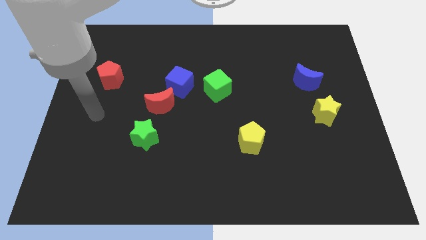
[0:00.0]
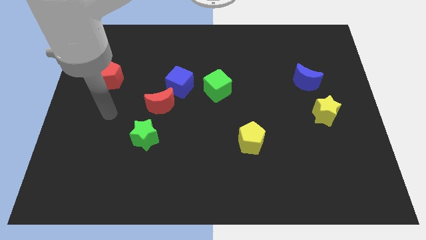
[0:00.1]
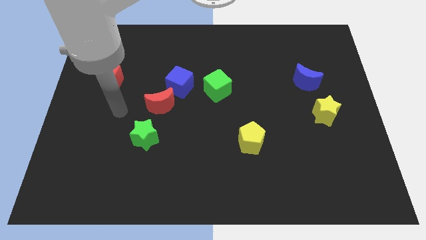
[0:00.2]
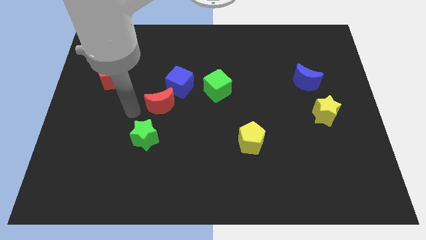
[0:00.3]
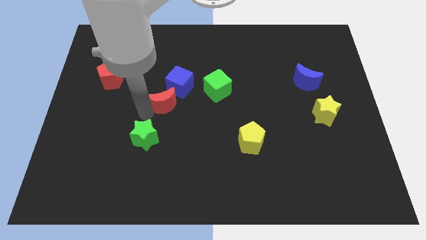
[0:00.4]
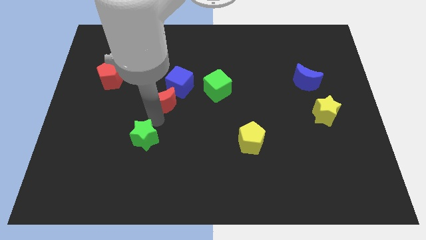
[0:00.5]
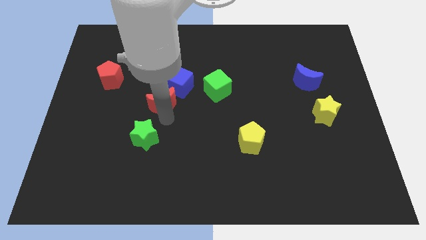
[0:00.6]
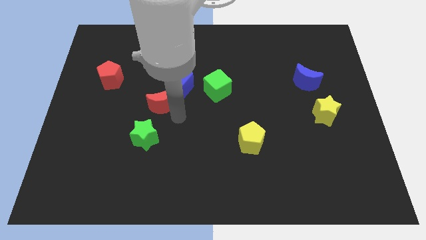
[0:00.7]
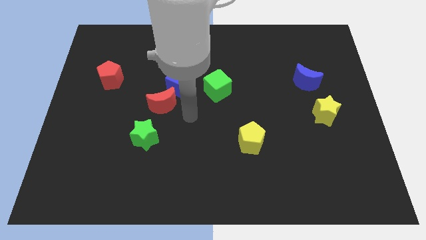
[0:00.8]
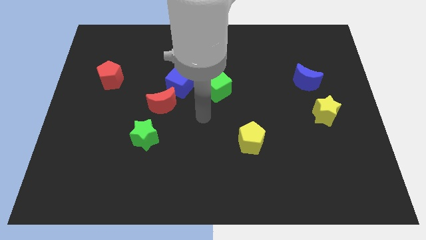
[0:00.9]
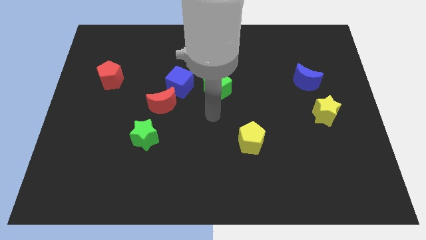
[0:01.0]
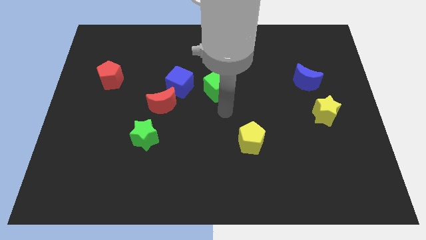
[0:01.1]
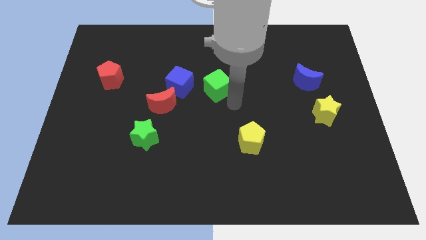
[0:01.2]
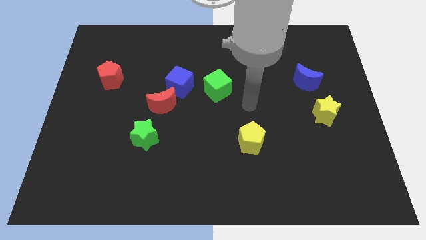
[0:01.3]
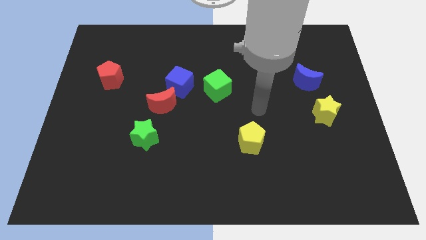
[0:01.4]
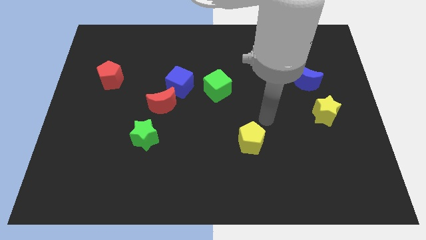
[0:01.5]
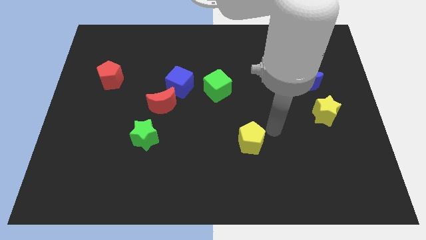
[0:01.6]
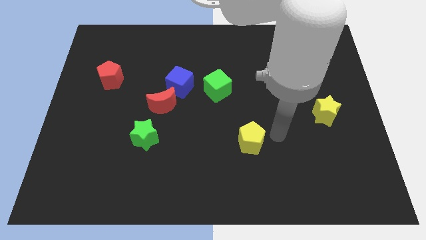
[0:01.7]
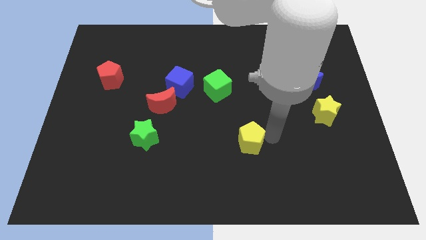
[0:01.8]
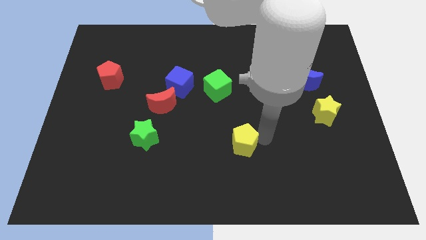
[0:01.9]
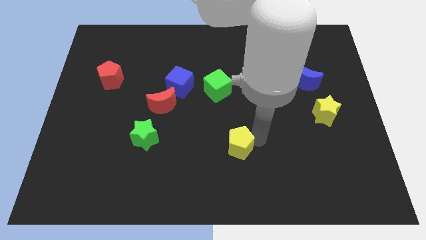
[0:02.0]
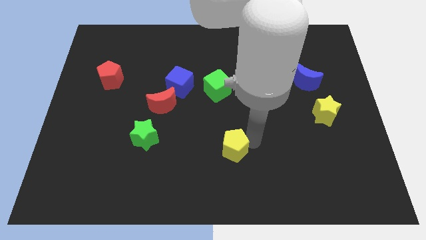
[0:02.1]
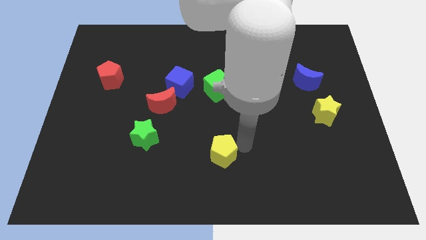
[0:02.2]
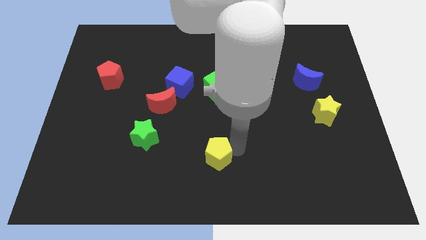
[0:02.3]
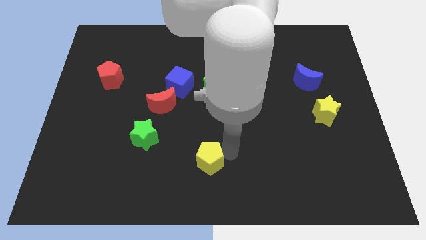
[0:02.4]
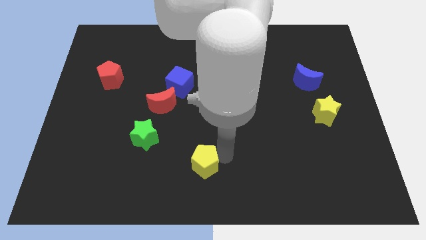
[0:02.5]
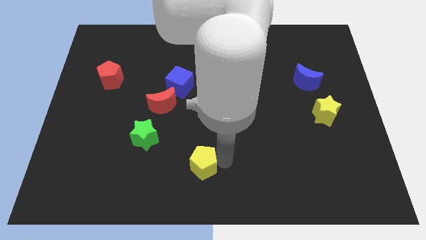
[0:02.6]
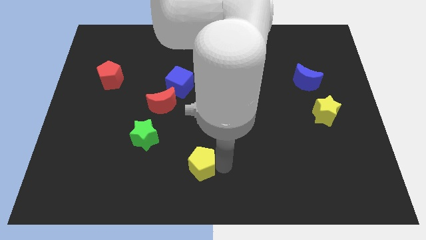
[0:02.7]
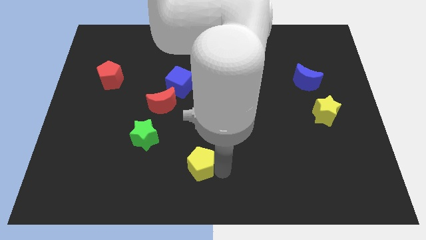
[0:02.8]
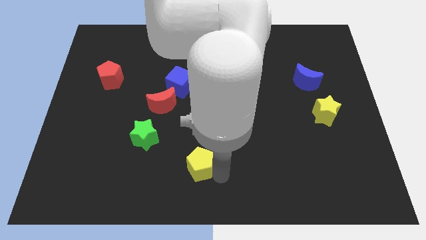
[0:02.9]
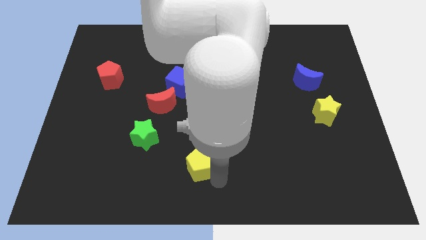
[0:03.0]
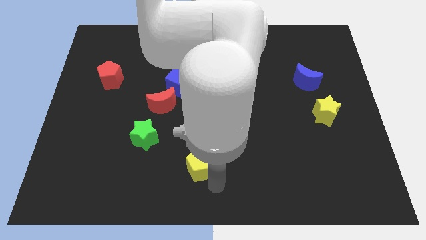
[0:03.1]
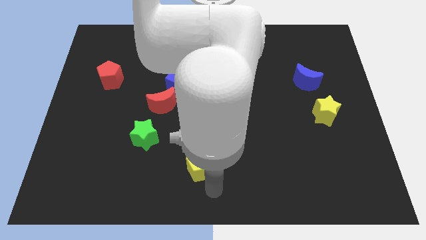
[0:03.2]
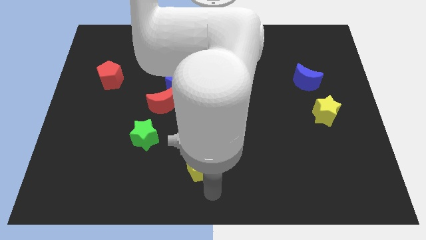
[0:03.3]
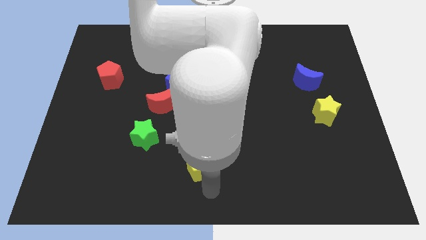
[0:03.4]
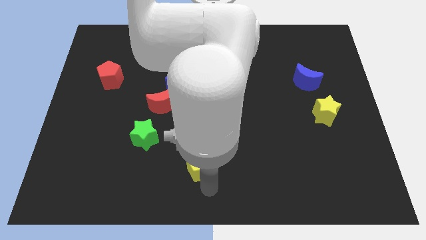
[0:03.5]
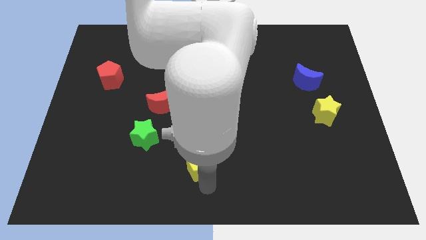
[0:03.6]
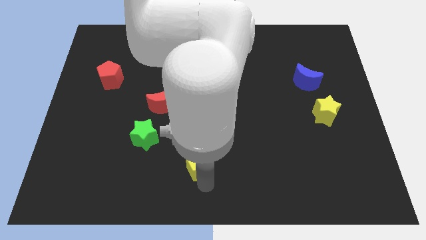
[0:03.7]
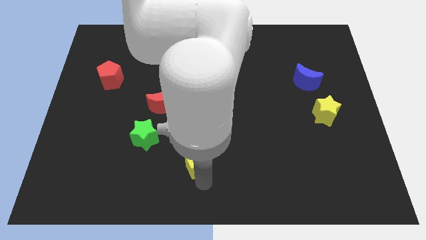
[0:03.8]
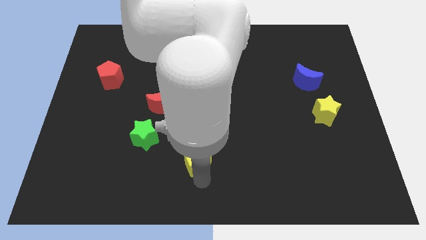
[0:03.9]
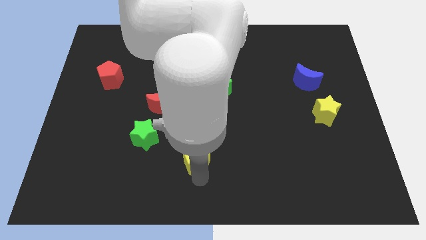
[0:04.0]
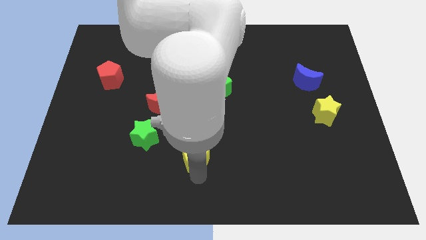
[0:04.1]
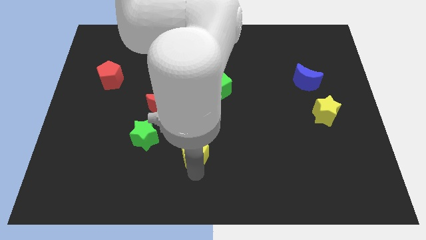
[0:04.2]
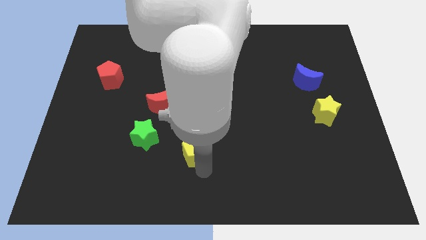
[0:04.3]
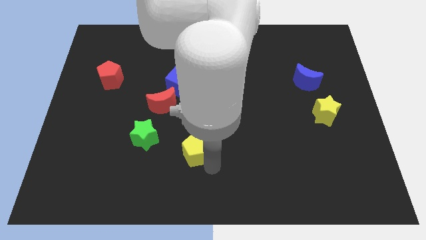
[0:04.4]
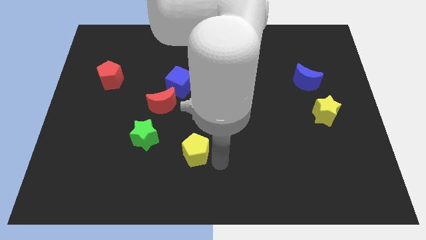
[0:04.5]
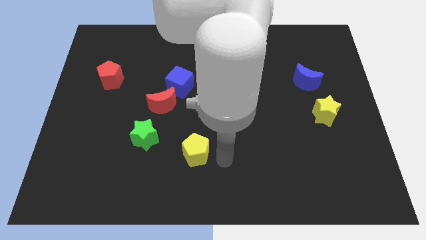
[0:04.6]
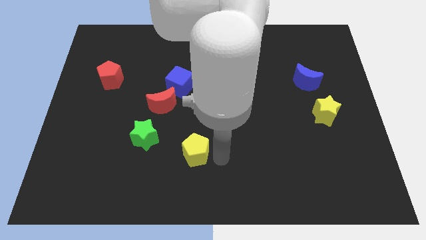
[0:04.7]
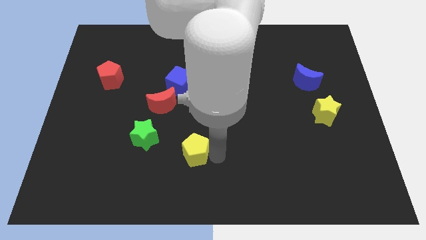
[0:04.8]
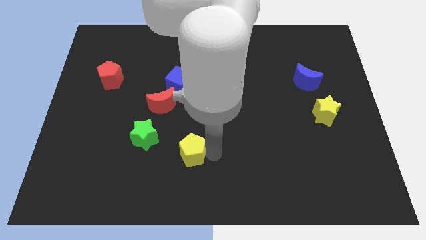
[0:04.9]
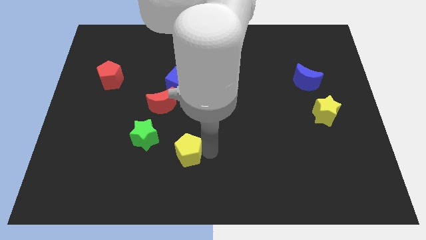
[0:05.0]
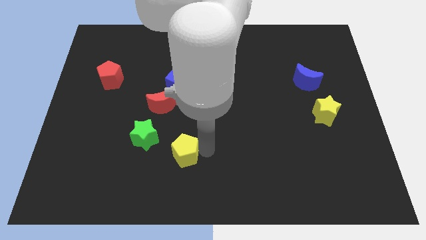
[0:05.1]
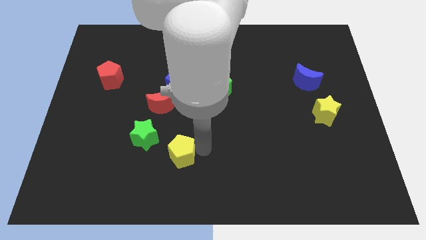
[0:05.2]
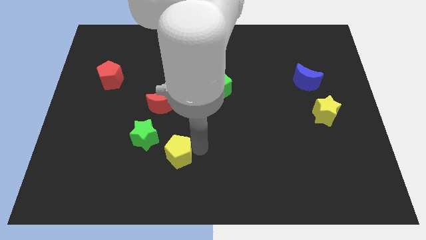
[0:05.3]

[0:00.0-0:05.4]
put the yellow pentagon to the bottom side of the red moon

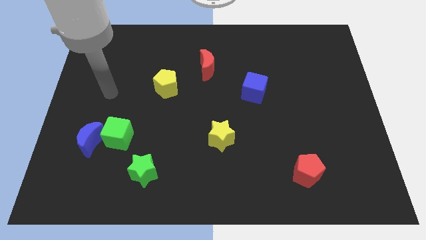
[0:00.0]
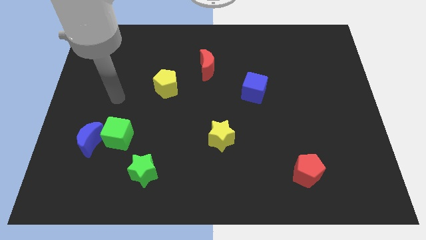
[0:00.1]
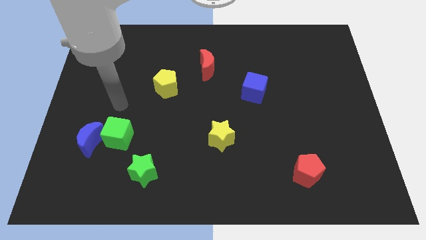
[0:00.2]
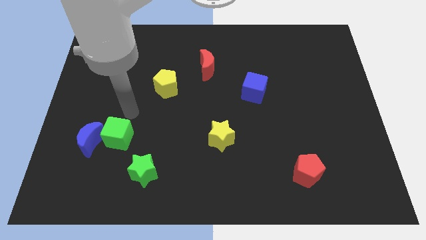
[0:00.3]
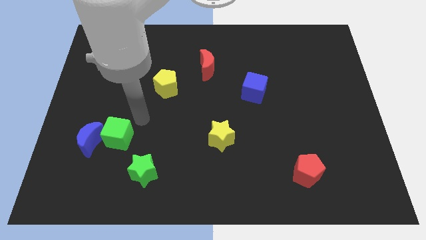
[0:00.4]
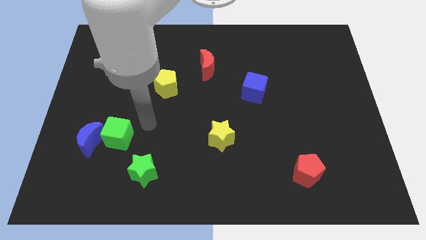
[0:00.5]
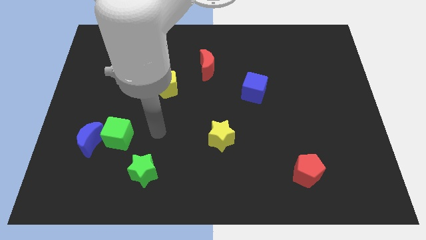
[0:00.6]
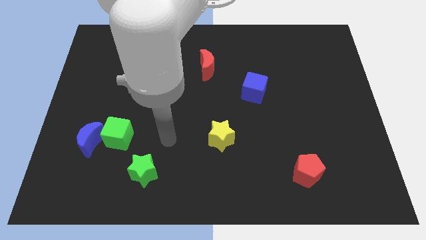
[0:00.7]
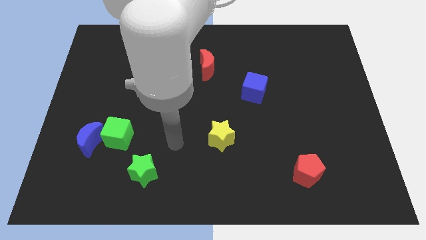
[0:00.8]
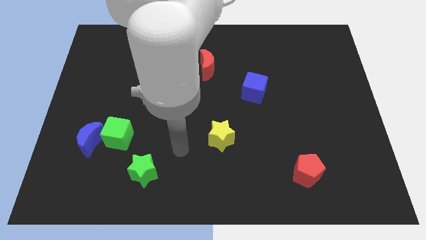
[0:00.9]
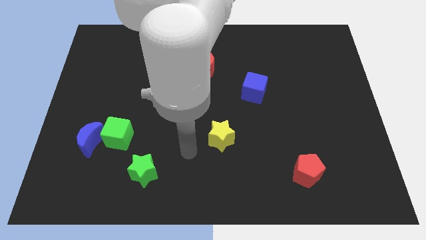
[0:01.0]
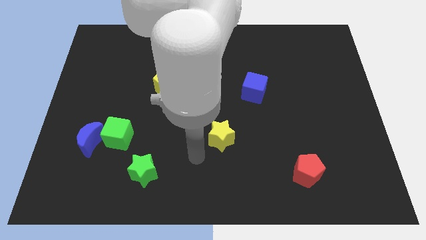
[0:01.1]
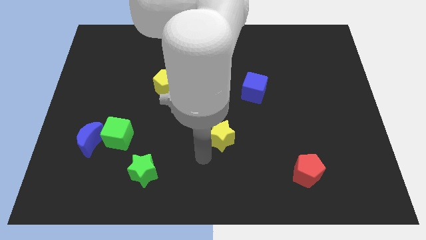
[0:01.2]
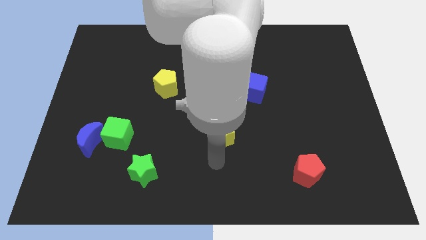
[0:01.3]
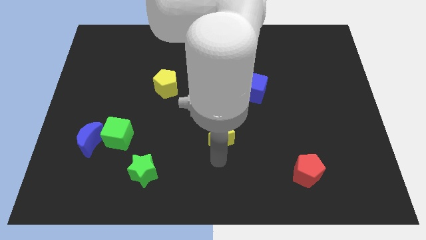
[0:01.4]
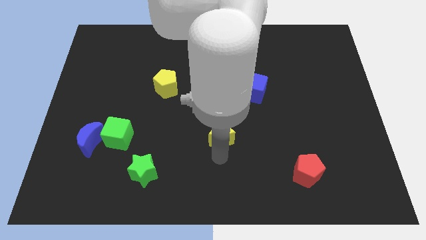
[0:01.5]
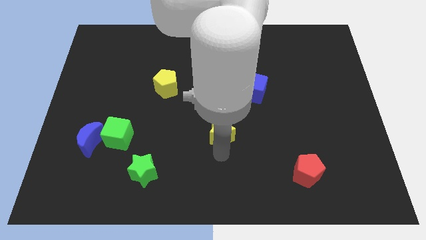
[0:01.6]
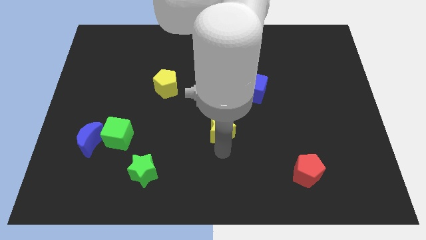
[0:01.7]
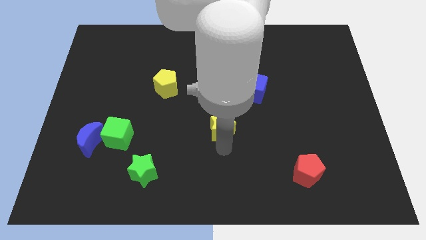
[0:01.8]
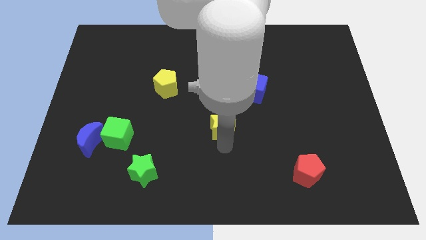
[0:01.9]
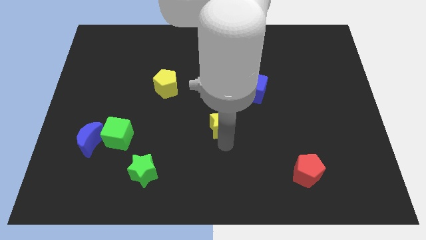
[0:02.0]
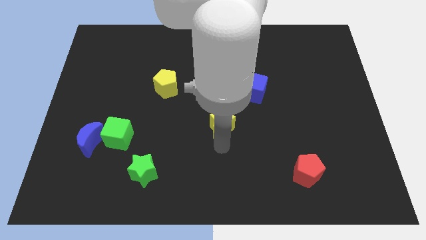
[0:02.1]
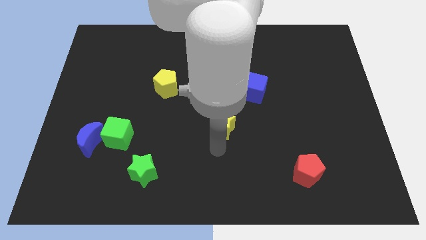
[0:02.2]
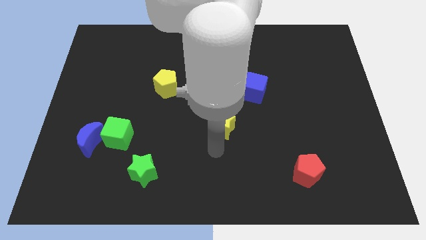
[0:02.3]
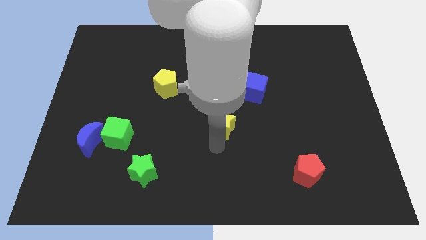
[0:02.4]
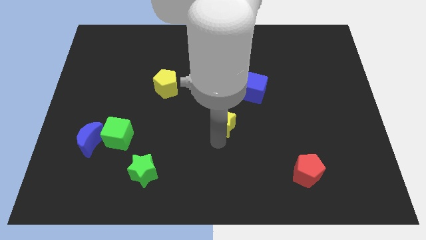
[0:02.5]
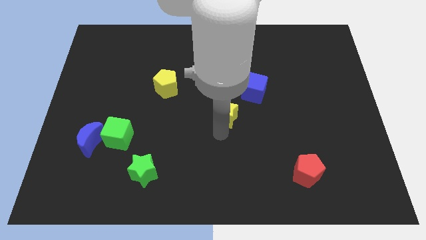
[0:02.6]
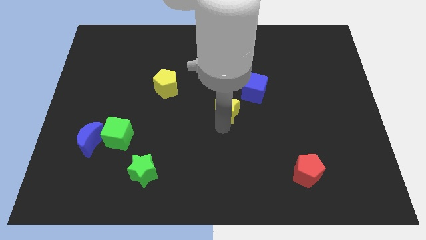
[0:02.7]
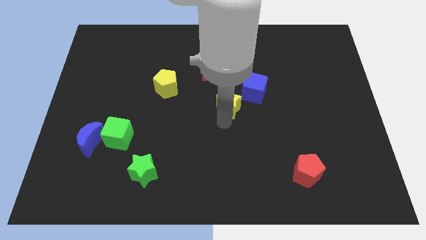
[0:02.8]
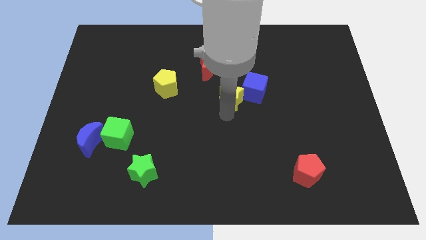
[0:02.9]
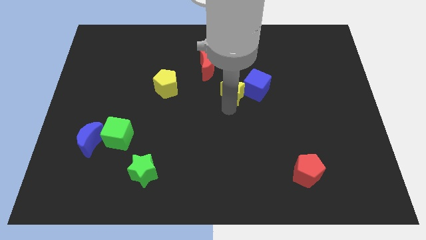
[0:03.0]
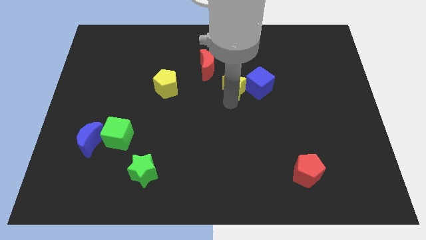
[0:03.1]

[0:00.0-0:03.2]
push the yellow star diagonally up and to the left of the blue cube
